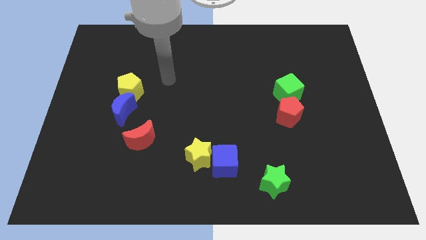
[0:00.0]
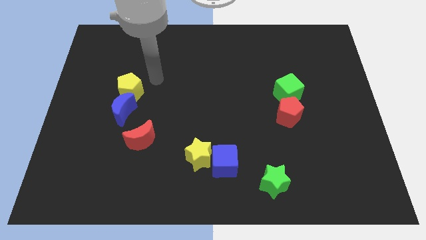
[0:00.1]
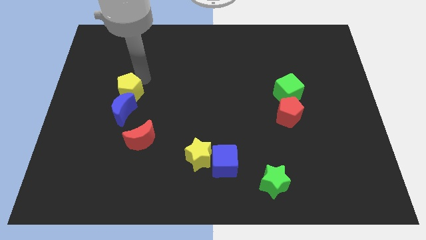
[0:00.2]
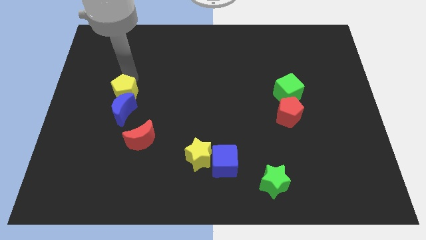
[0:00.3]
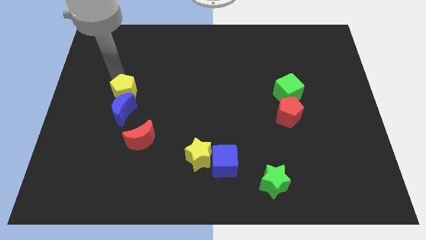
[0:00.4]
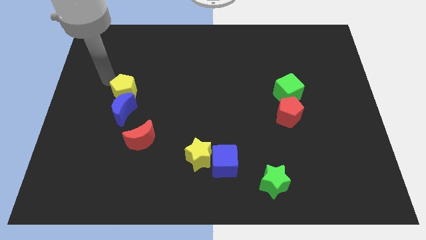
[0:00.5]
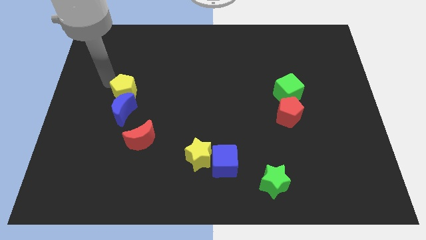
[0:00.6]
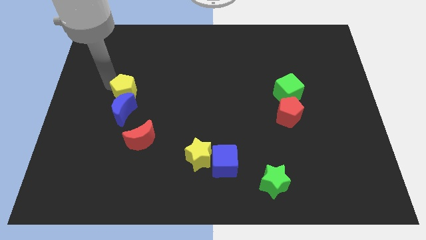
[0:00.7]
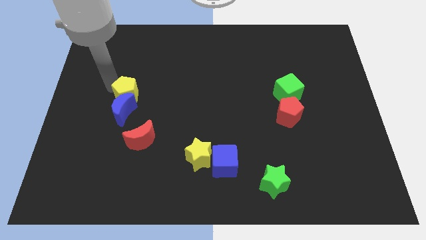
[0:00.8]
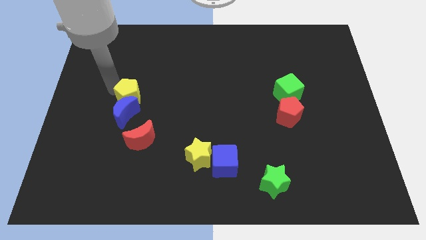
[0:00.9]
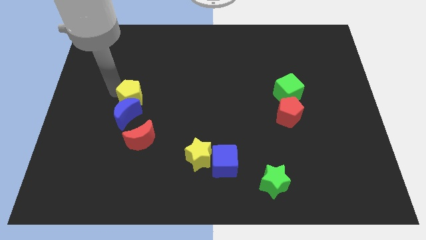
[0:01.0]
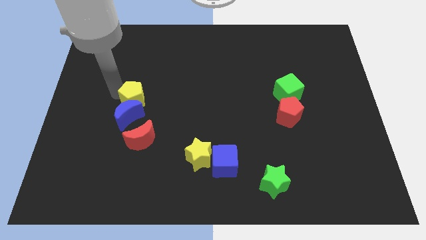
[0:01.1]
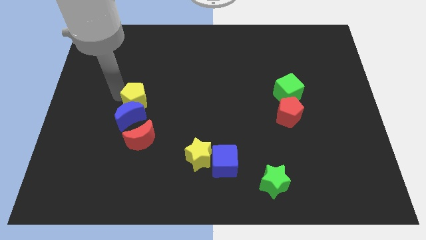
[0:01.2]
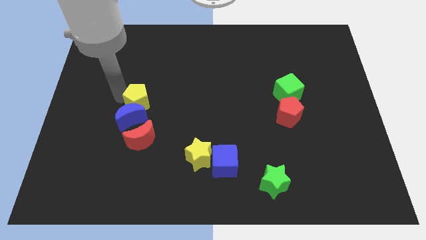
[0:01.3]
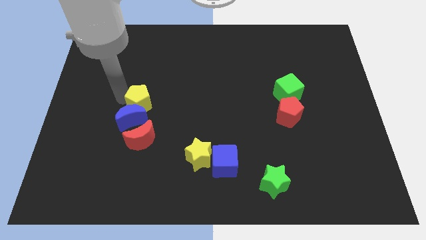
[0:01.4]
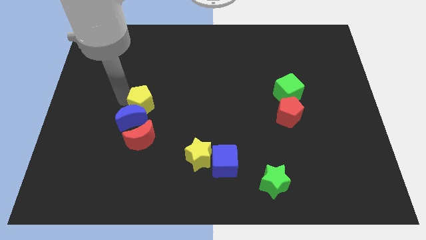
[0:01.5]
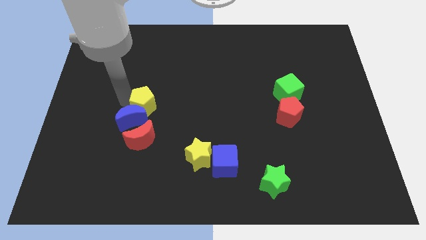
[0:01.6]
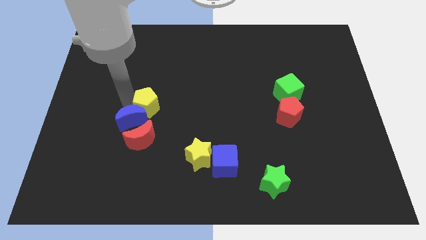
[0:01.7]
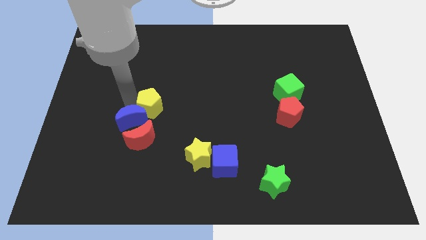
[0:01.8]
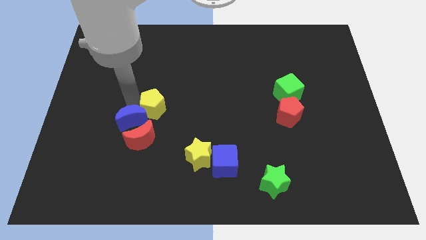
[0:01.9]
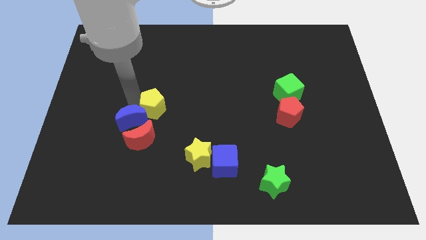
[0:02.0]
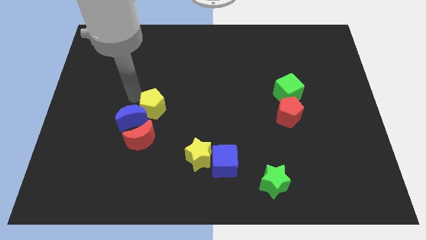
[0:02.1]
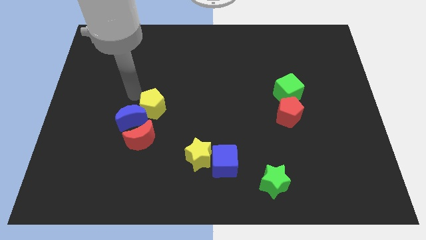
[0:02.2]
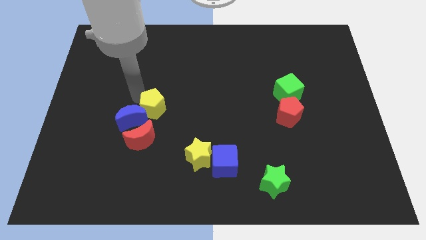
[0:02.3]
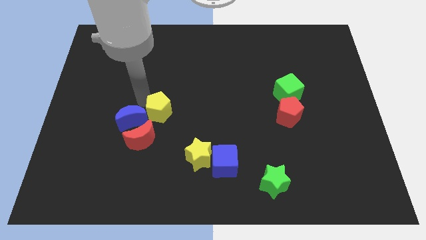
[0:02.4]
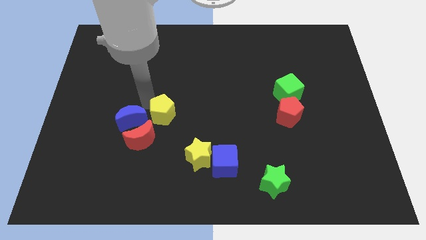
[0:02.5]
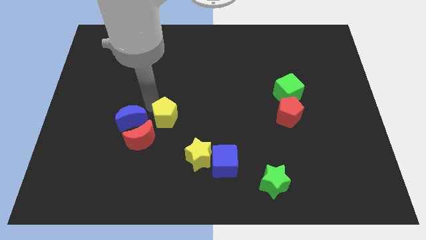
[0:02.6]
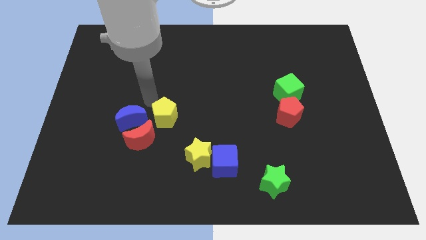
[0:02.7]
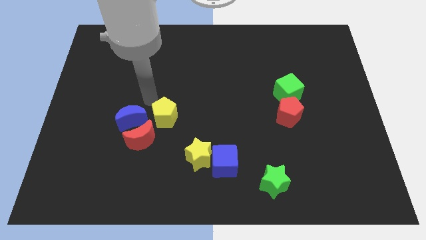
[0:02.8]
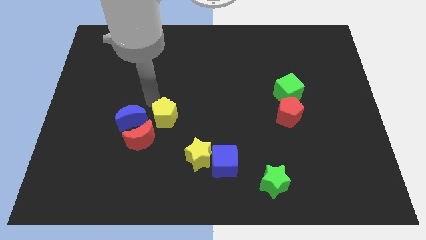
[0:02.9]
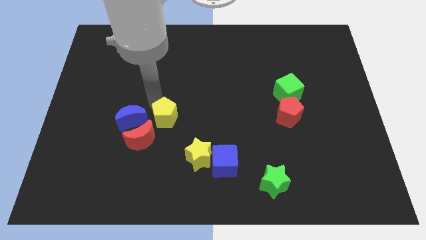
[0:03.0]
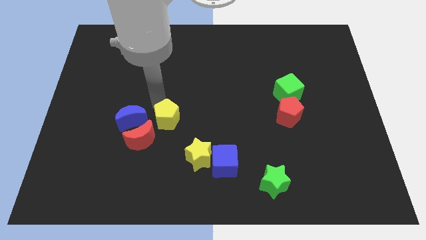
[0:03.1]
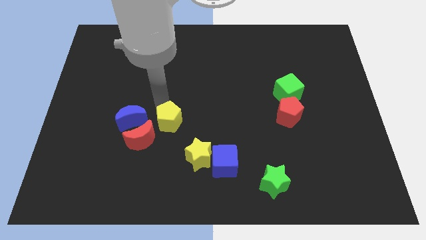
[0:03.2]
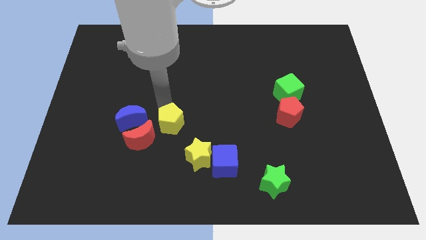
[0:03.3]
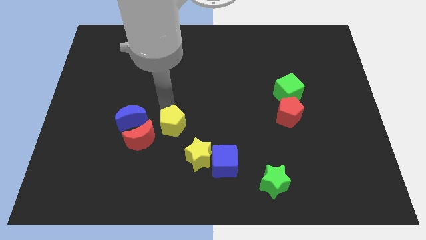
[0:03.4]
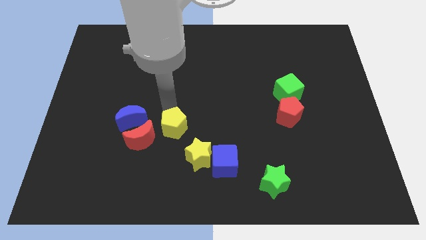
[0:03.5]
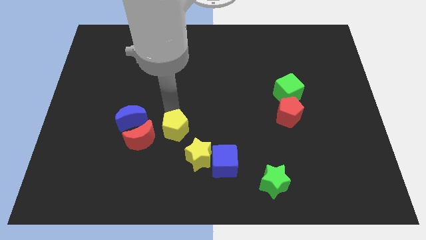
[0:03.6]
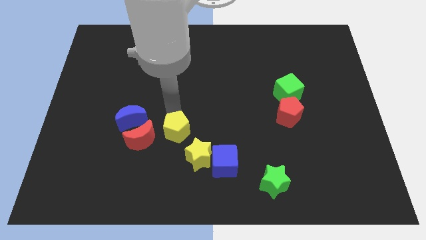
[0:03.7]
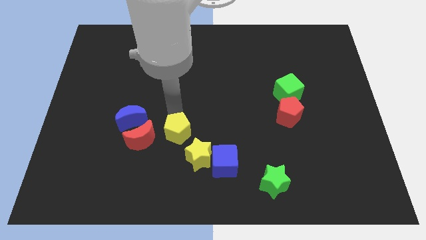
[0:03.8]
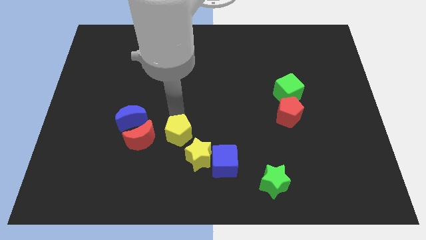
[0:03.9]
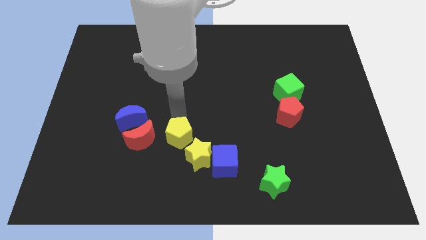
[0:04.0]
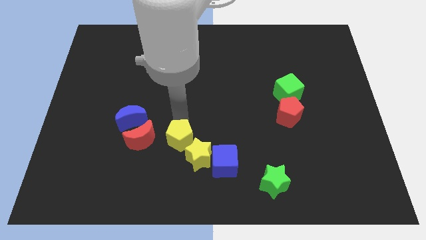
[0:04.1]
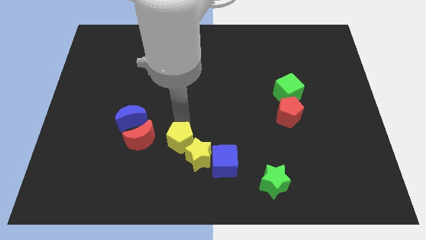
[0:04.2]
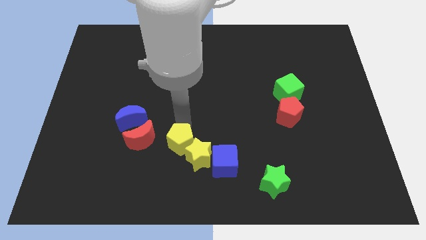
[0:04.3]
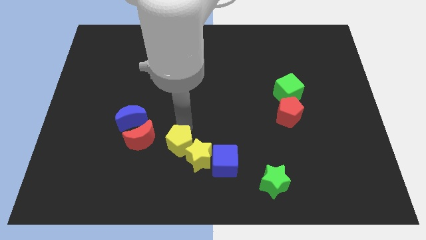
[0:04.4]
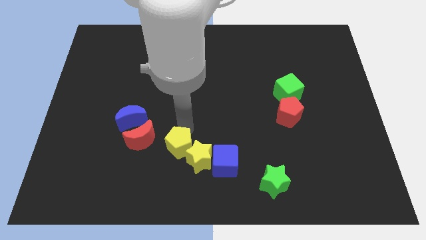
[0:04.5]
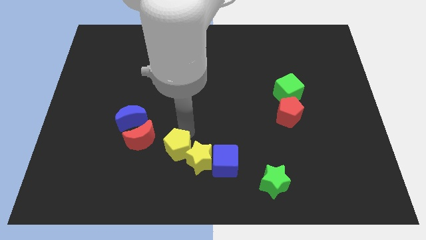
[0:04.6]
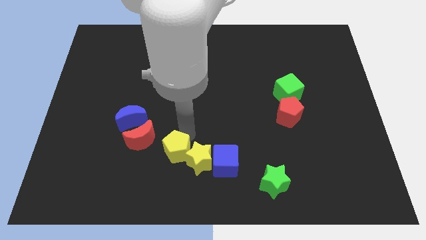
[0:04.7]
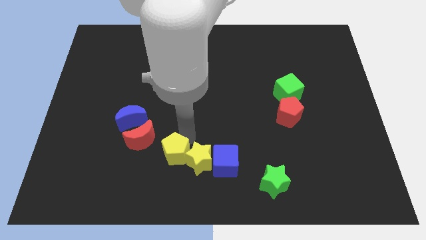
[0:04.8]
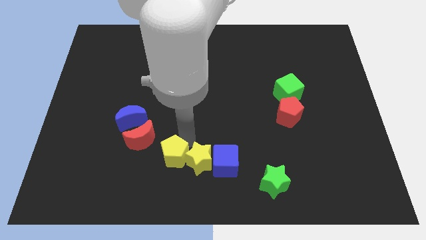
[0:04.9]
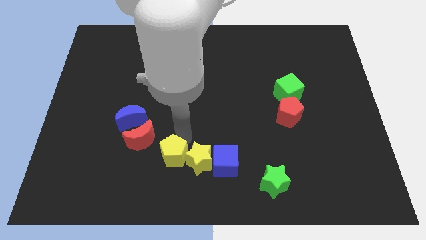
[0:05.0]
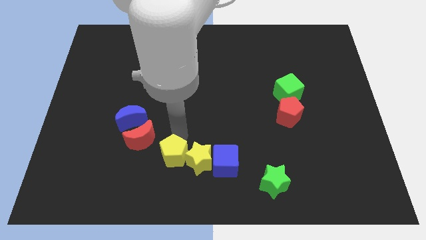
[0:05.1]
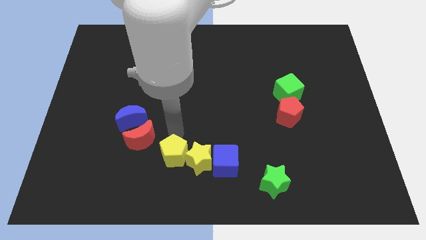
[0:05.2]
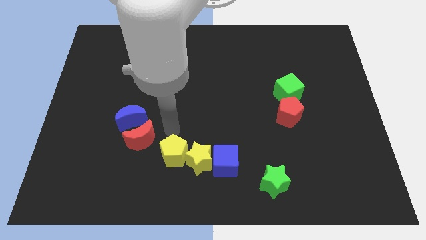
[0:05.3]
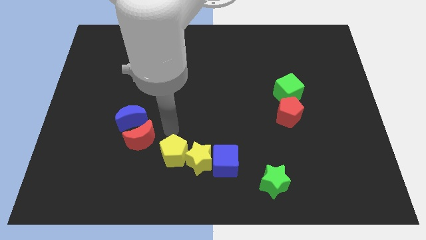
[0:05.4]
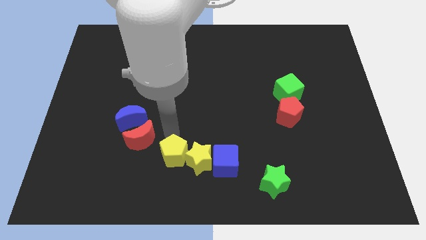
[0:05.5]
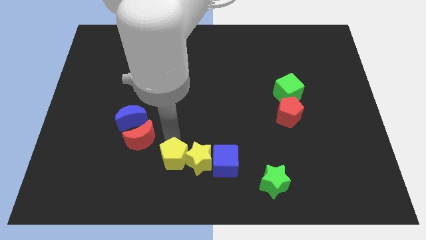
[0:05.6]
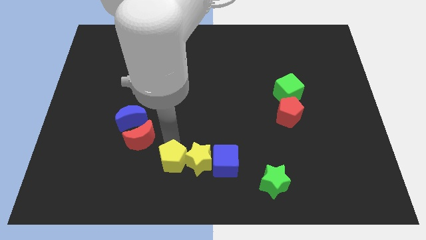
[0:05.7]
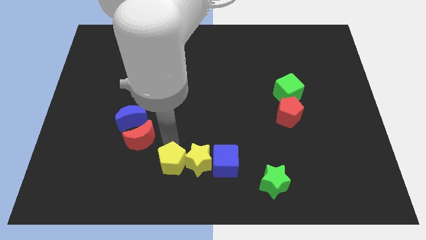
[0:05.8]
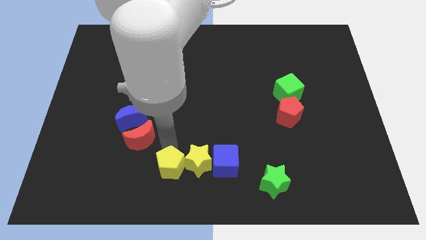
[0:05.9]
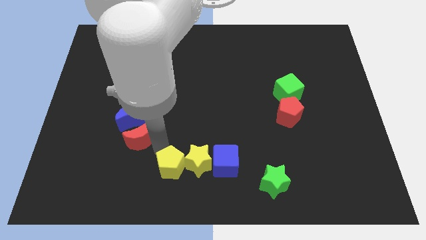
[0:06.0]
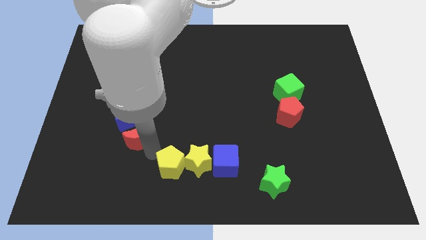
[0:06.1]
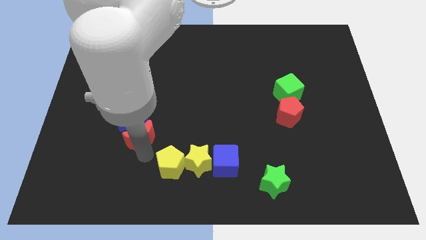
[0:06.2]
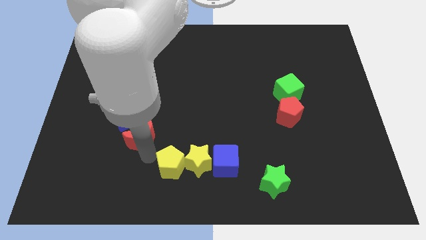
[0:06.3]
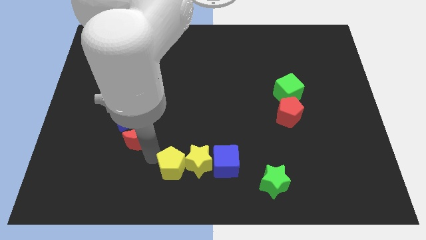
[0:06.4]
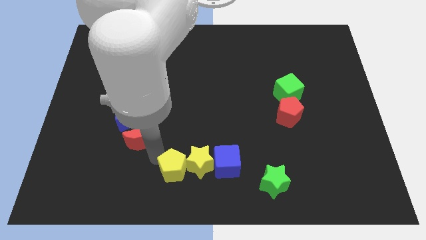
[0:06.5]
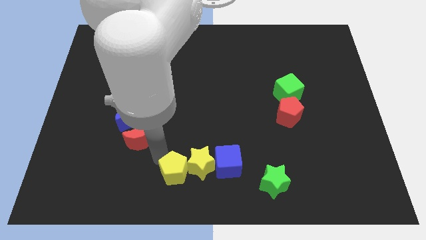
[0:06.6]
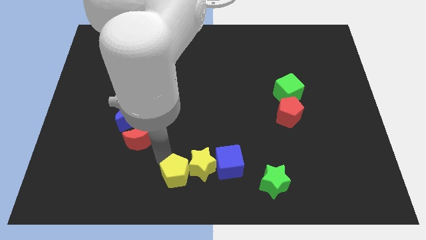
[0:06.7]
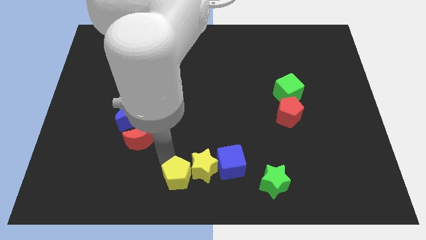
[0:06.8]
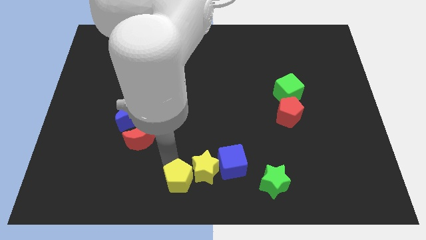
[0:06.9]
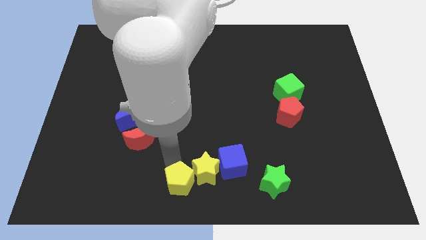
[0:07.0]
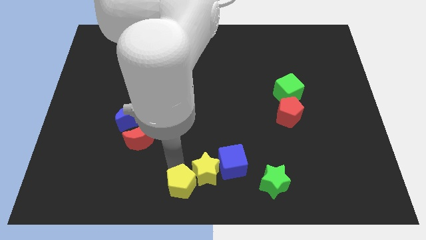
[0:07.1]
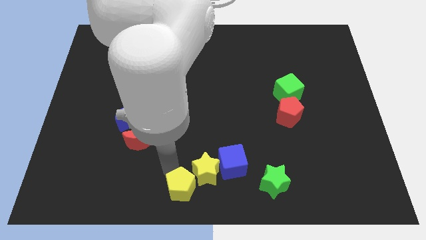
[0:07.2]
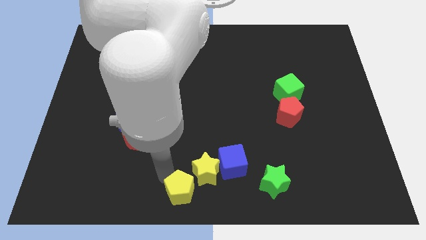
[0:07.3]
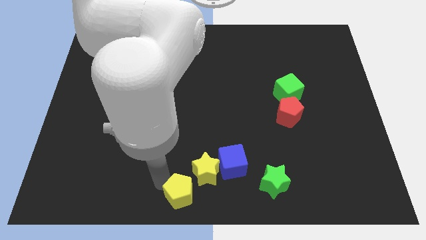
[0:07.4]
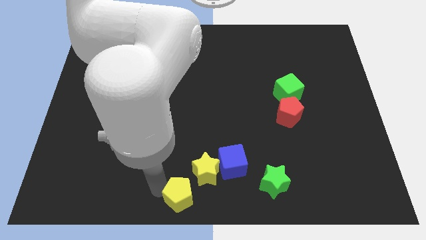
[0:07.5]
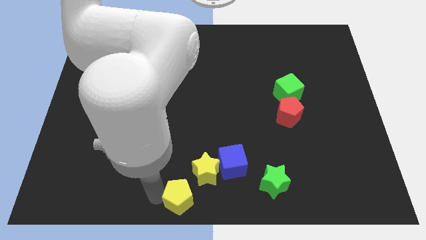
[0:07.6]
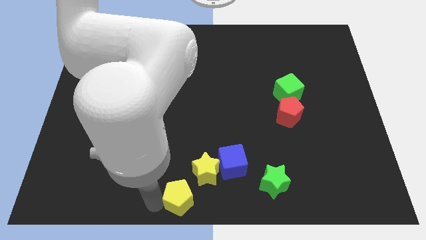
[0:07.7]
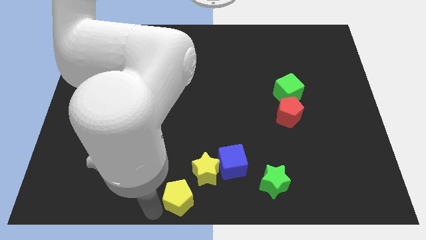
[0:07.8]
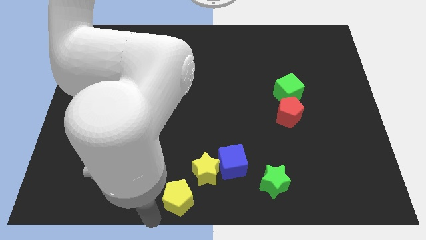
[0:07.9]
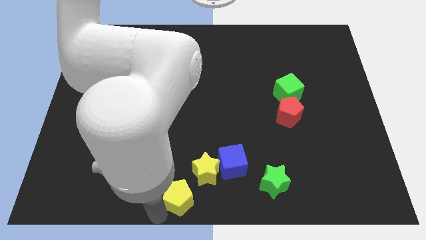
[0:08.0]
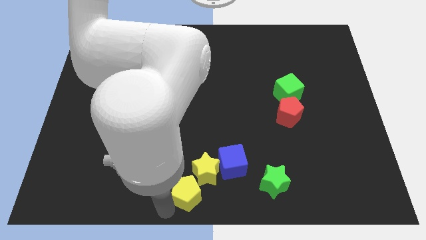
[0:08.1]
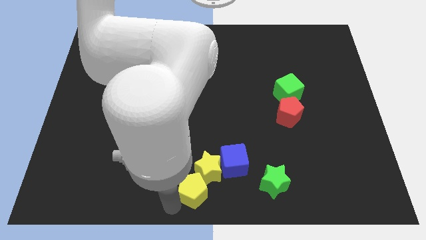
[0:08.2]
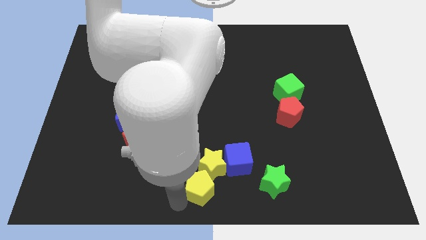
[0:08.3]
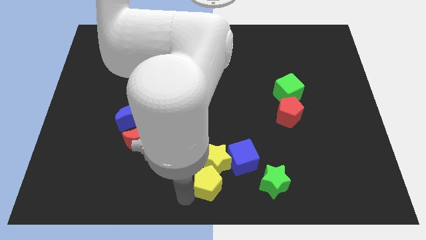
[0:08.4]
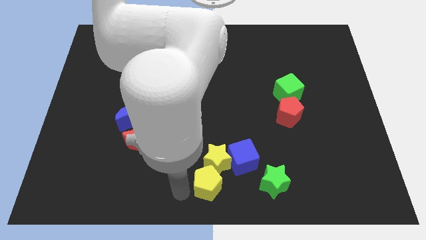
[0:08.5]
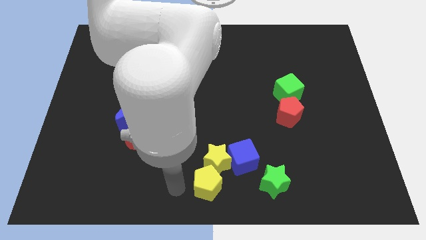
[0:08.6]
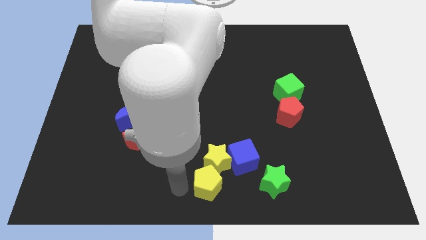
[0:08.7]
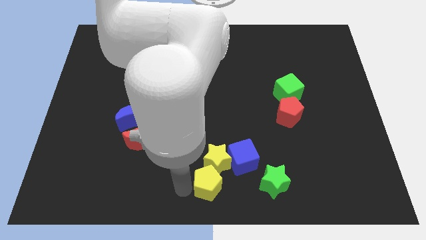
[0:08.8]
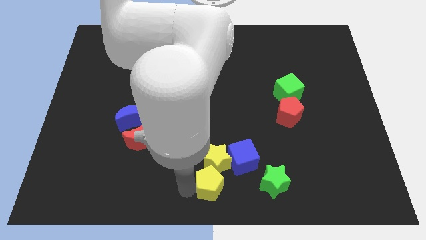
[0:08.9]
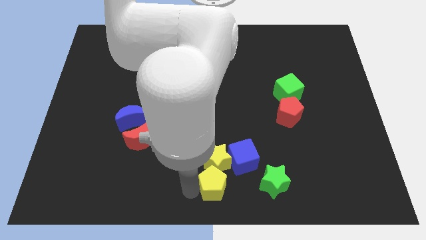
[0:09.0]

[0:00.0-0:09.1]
move the yellow pentagon to the bottom right side of the yellow star
